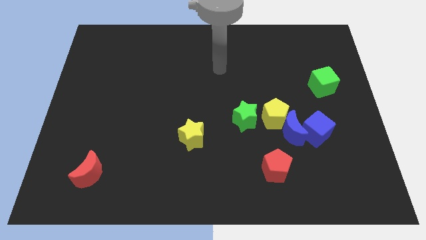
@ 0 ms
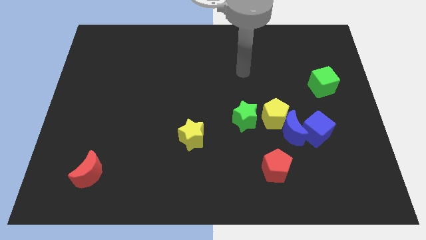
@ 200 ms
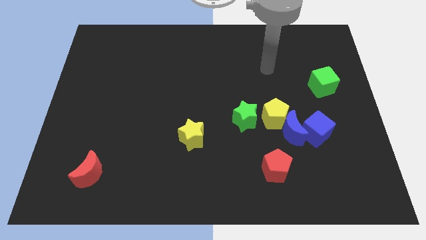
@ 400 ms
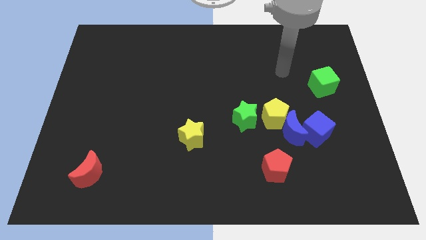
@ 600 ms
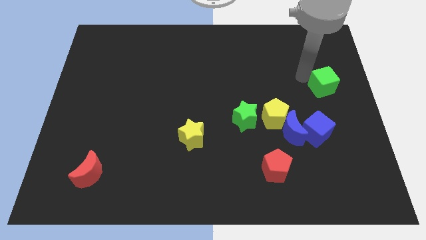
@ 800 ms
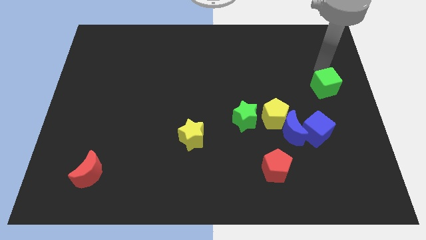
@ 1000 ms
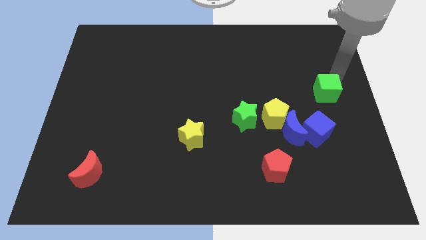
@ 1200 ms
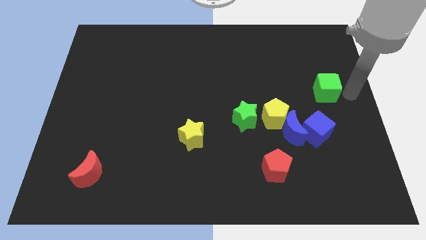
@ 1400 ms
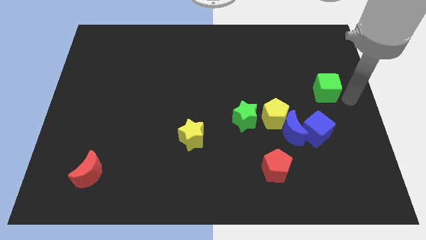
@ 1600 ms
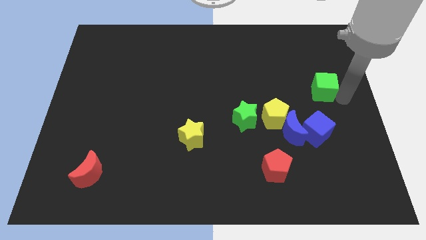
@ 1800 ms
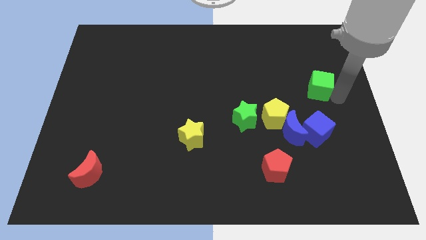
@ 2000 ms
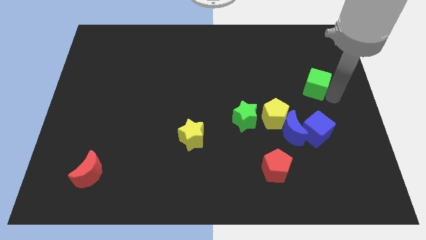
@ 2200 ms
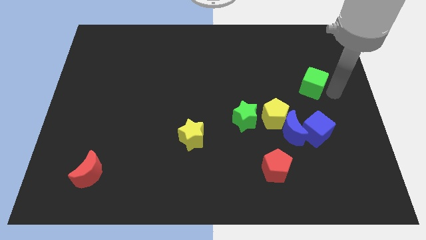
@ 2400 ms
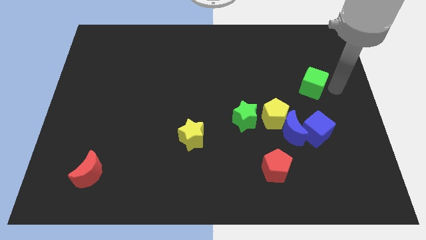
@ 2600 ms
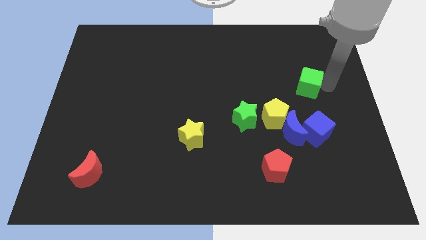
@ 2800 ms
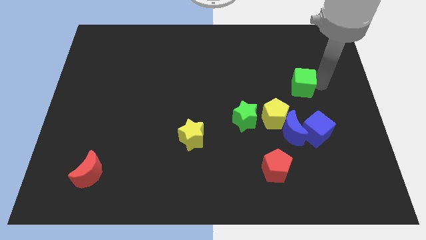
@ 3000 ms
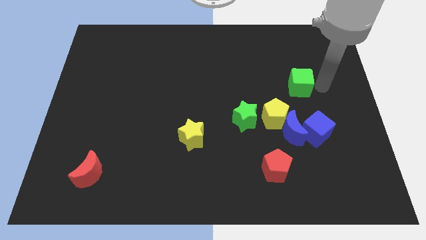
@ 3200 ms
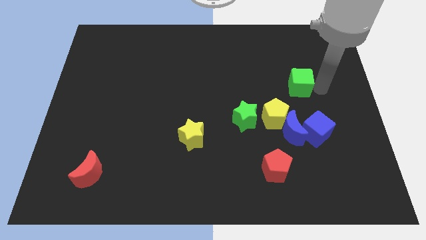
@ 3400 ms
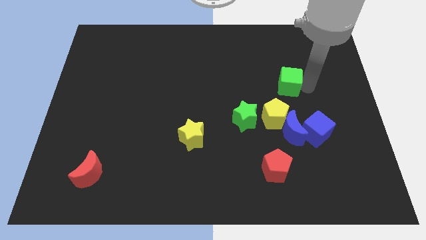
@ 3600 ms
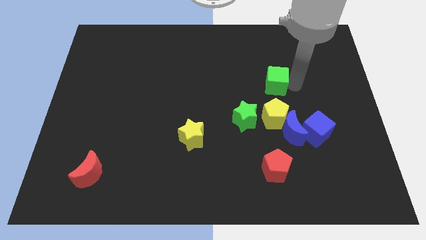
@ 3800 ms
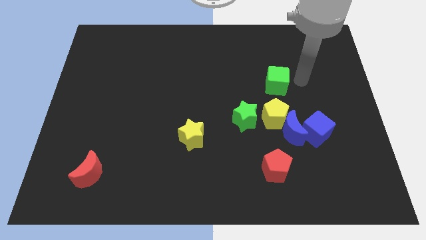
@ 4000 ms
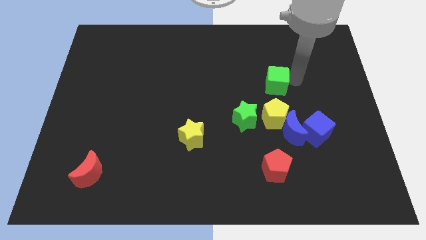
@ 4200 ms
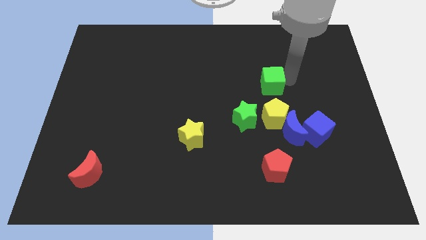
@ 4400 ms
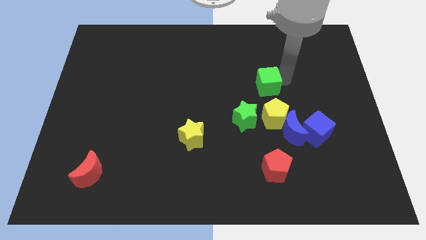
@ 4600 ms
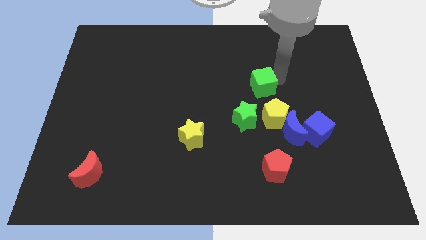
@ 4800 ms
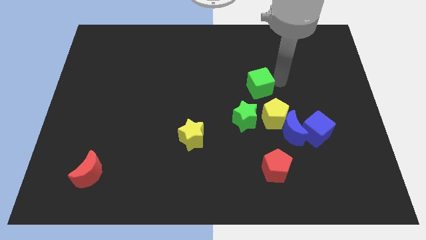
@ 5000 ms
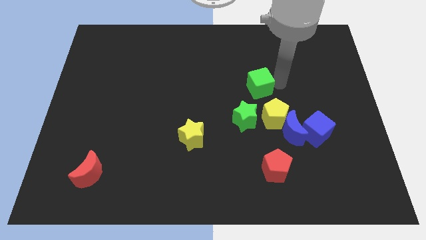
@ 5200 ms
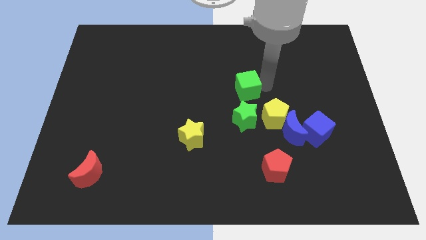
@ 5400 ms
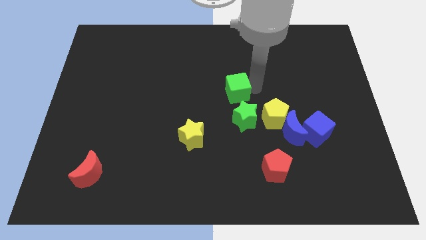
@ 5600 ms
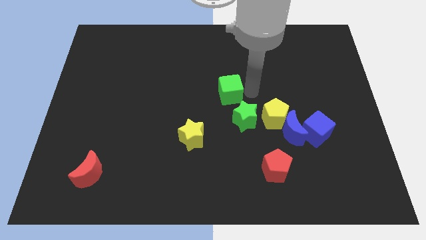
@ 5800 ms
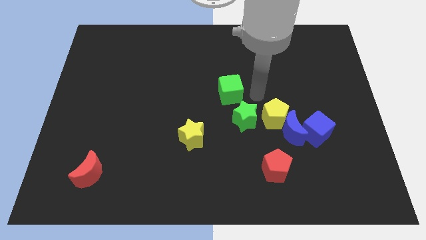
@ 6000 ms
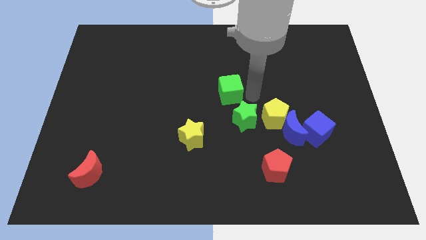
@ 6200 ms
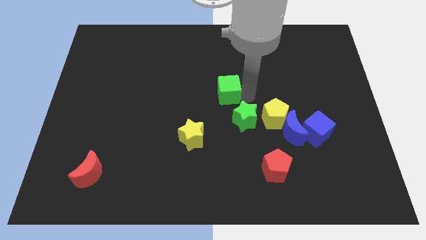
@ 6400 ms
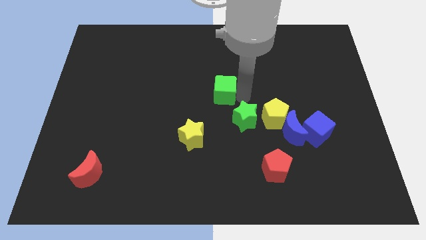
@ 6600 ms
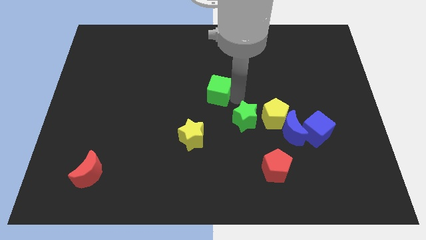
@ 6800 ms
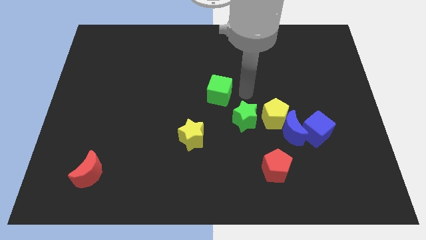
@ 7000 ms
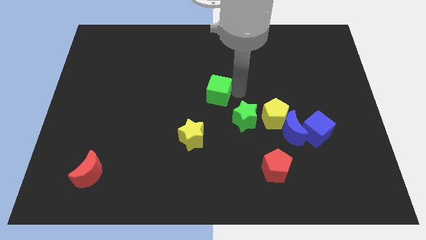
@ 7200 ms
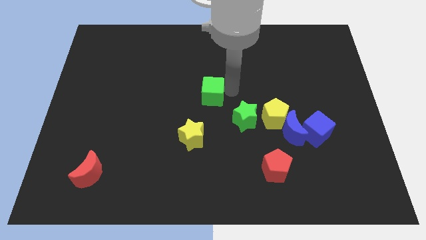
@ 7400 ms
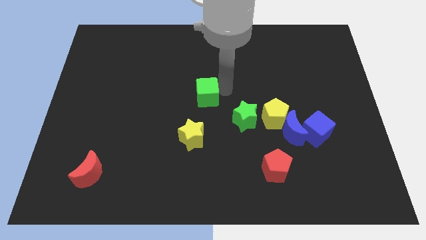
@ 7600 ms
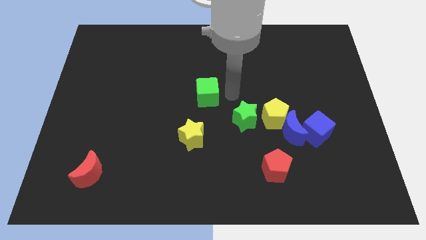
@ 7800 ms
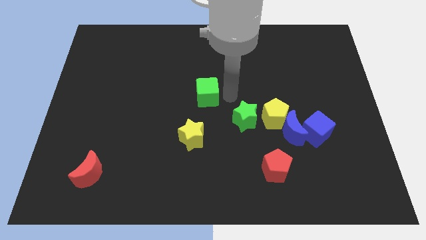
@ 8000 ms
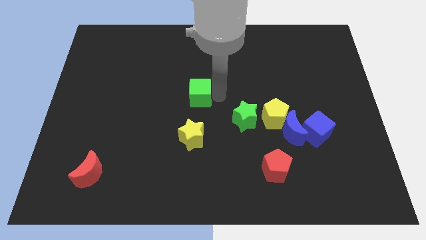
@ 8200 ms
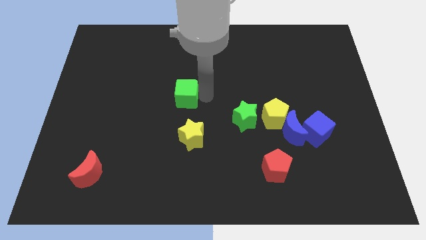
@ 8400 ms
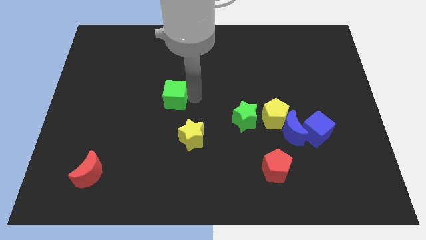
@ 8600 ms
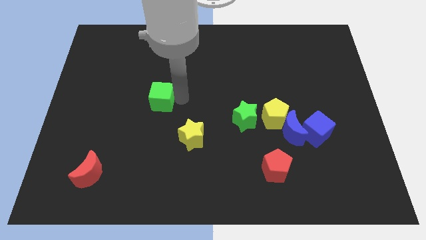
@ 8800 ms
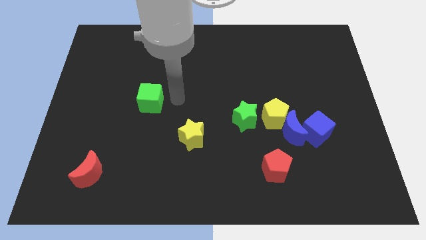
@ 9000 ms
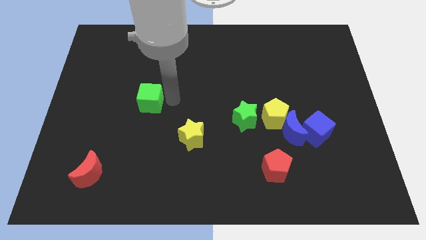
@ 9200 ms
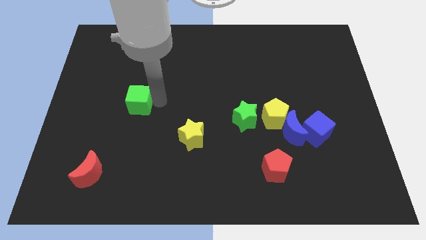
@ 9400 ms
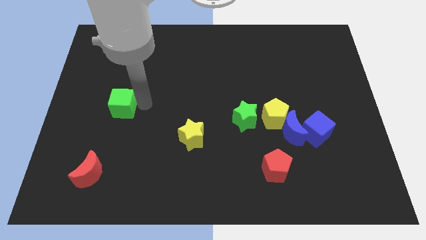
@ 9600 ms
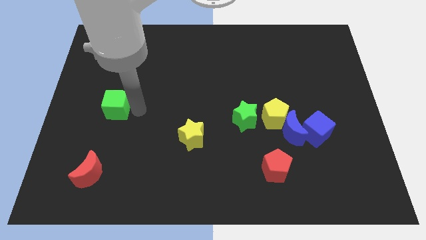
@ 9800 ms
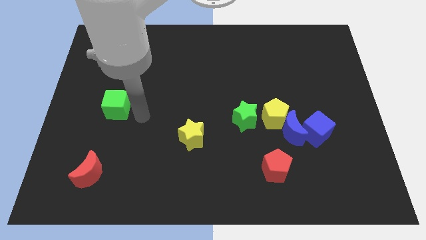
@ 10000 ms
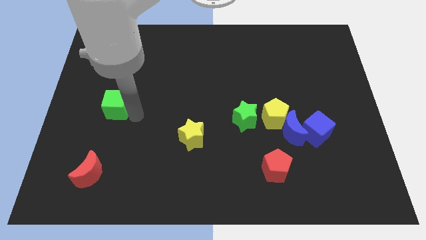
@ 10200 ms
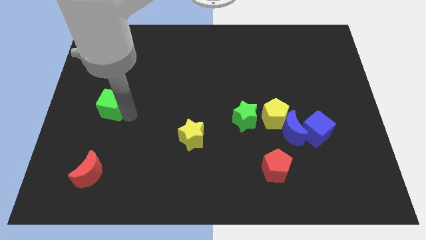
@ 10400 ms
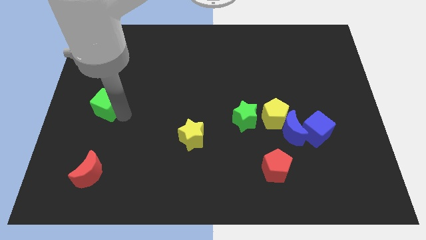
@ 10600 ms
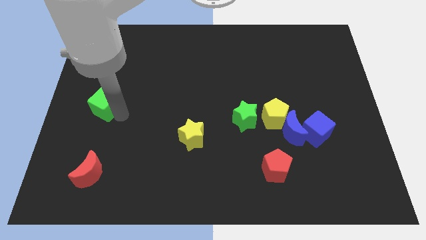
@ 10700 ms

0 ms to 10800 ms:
move the green cube to the left side

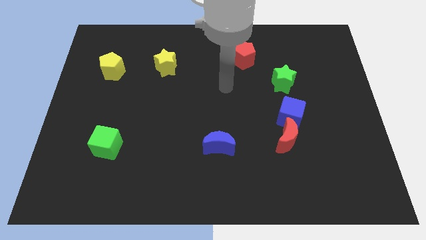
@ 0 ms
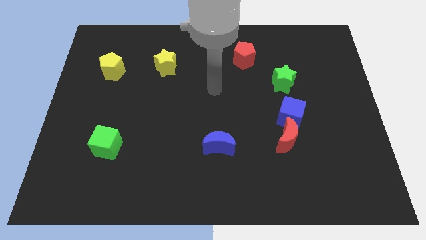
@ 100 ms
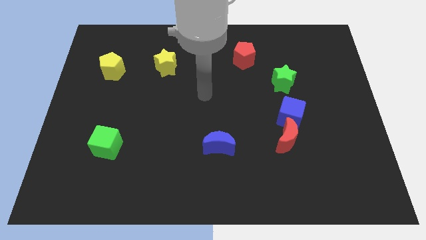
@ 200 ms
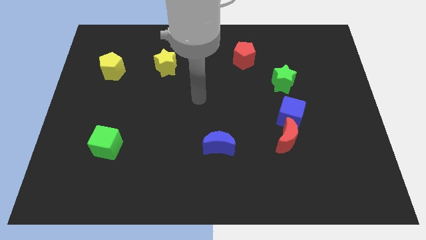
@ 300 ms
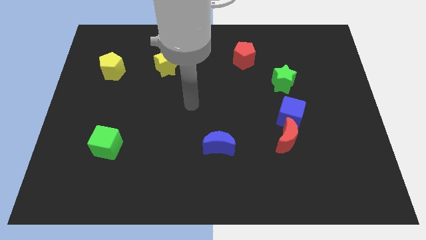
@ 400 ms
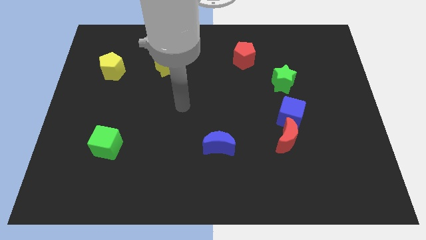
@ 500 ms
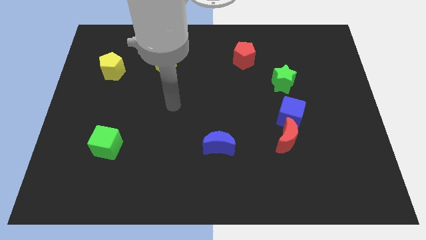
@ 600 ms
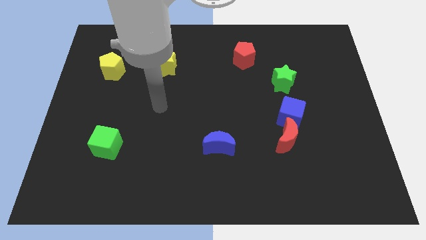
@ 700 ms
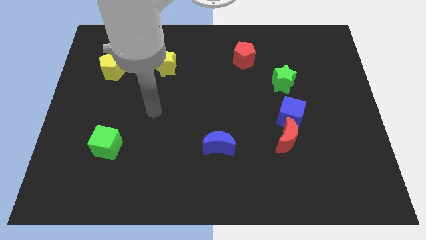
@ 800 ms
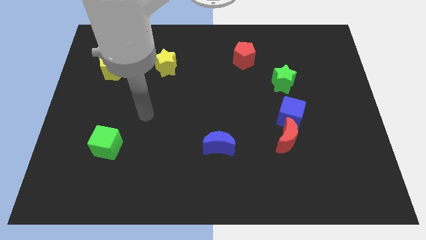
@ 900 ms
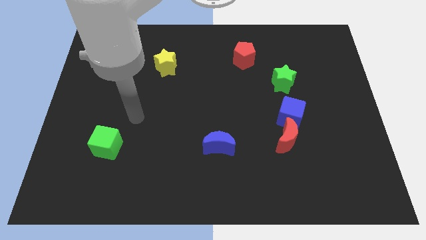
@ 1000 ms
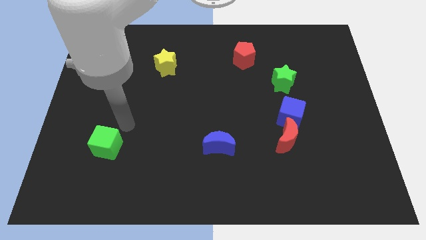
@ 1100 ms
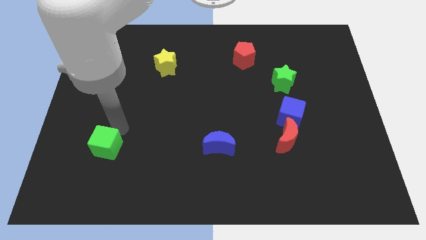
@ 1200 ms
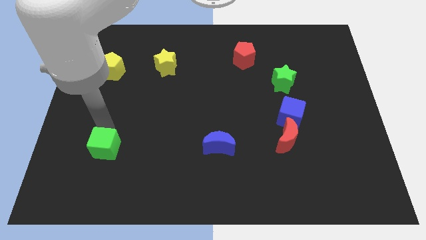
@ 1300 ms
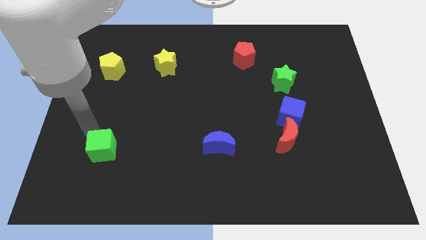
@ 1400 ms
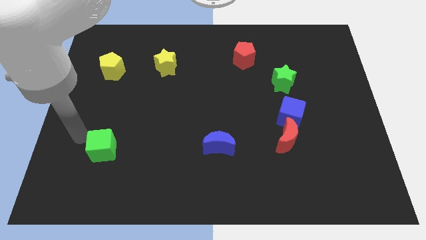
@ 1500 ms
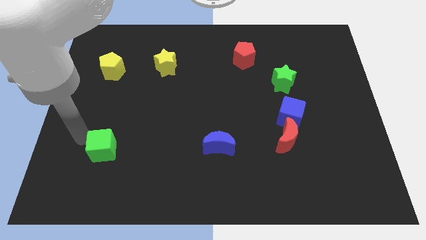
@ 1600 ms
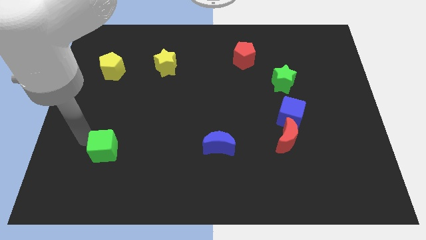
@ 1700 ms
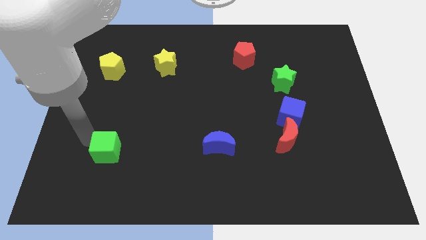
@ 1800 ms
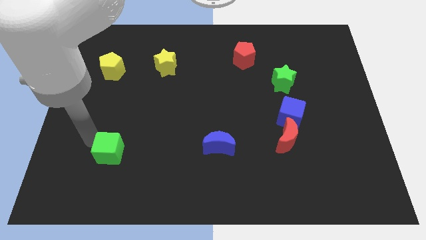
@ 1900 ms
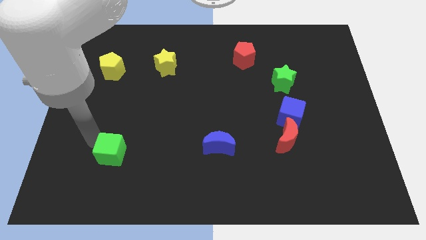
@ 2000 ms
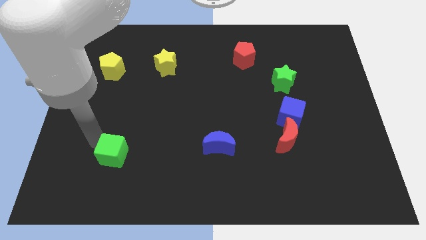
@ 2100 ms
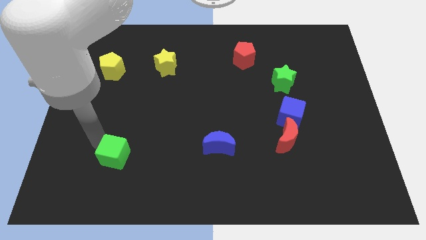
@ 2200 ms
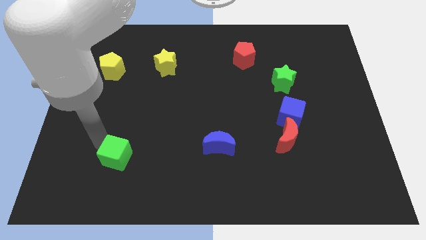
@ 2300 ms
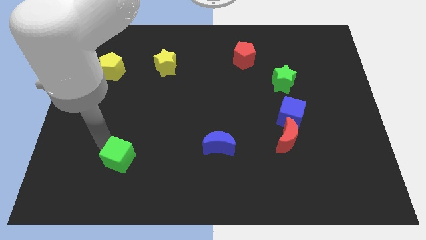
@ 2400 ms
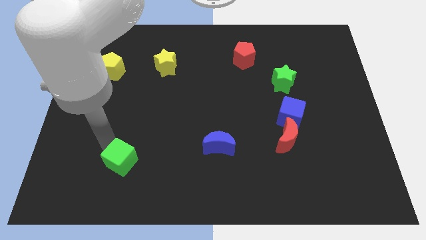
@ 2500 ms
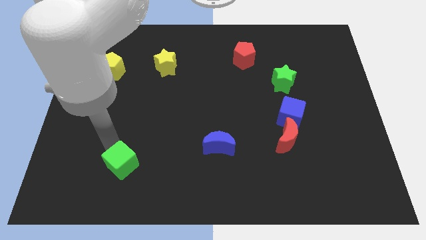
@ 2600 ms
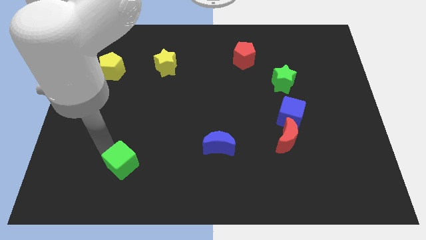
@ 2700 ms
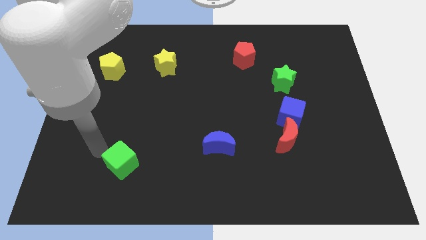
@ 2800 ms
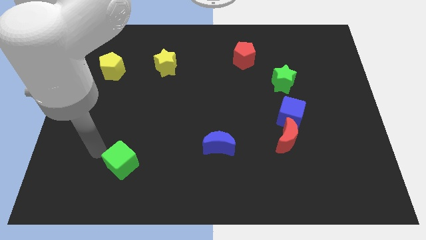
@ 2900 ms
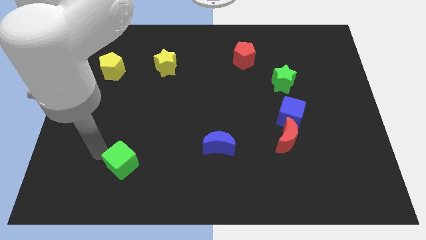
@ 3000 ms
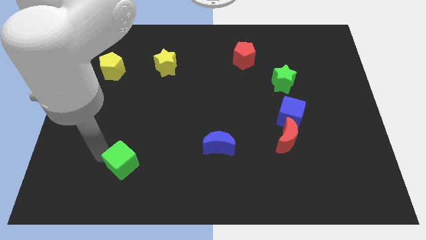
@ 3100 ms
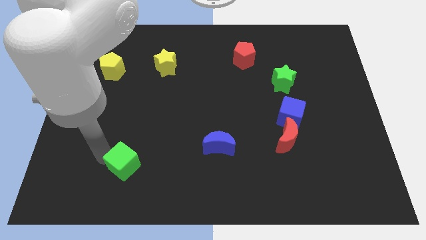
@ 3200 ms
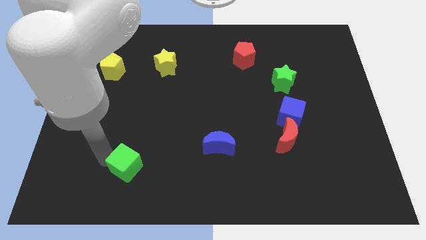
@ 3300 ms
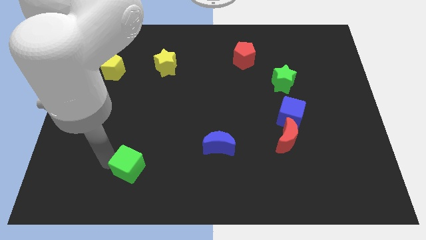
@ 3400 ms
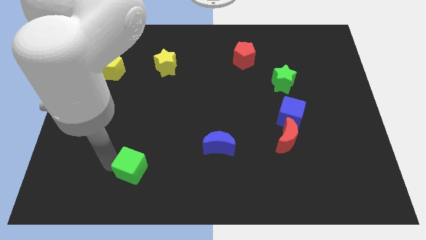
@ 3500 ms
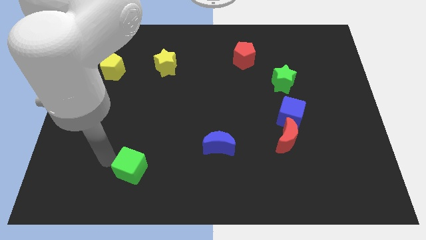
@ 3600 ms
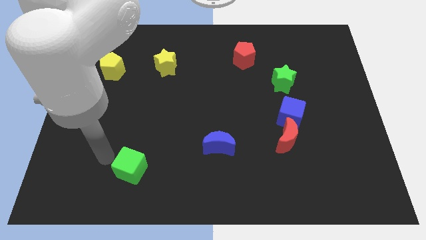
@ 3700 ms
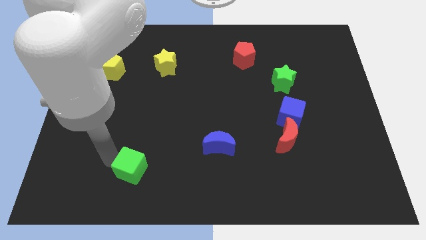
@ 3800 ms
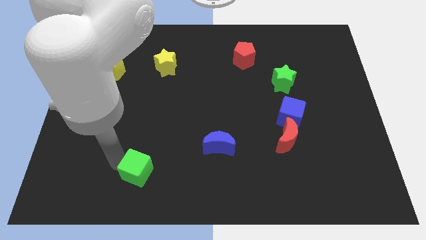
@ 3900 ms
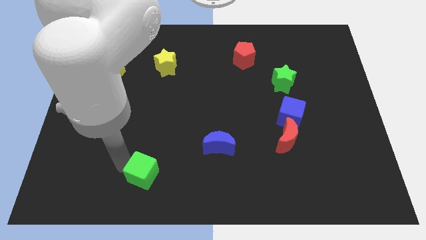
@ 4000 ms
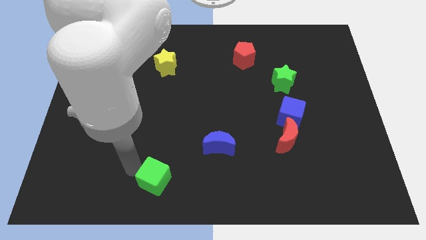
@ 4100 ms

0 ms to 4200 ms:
push the green cube to the bottom side
